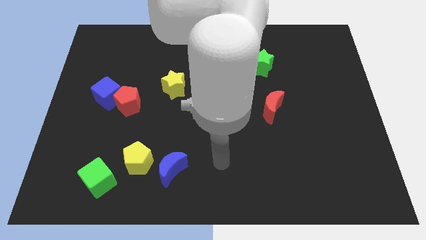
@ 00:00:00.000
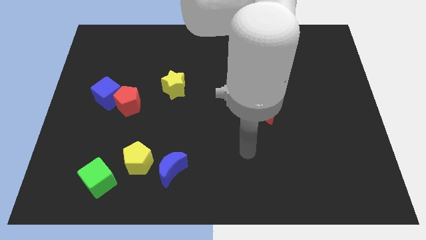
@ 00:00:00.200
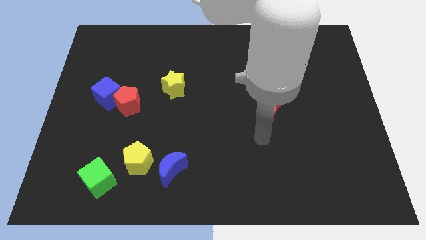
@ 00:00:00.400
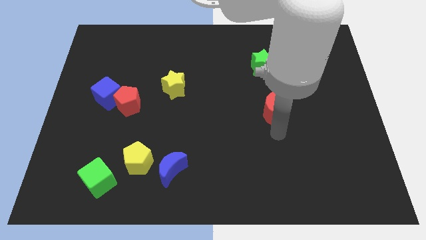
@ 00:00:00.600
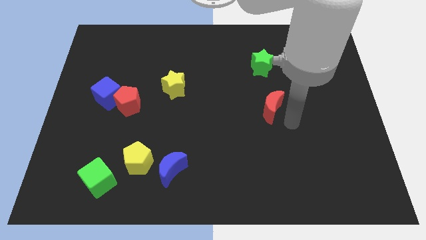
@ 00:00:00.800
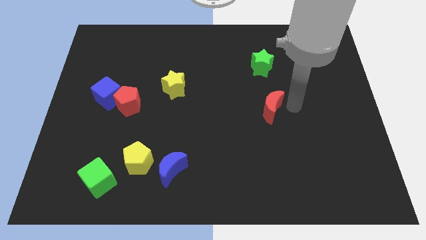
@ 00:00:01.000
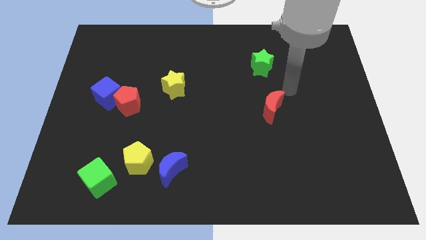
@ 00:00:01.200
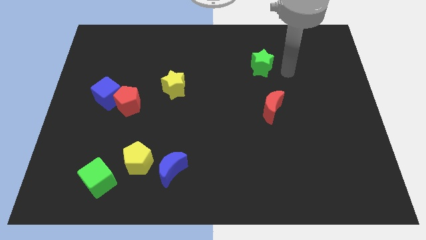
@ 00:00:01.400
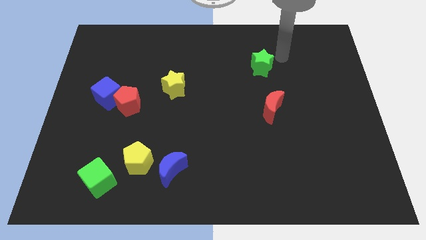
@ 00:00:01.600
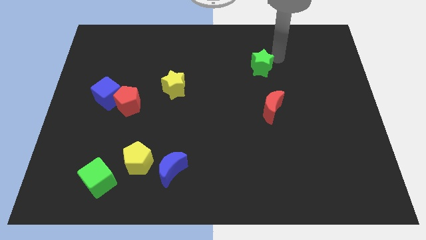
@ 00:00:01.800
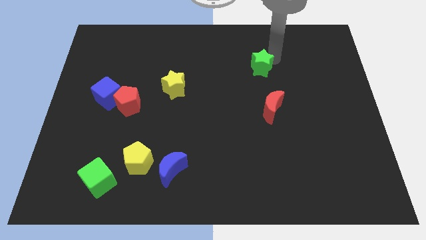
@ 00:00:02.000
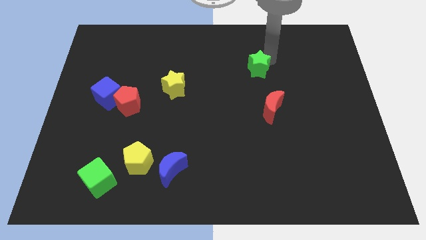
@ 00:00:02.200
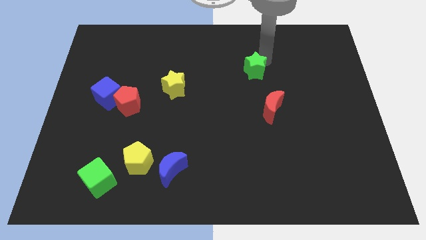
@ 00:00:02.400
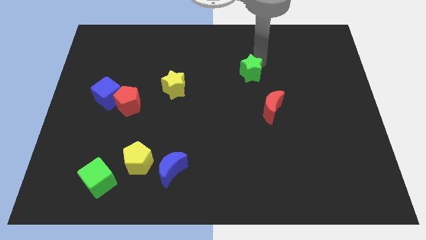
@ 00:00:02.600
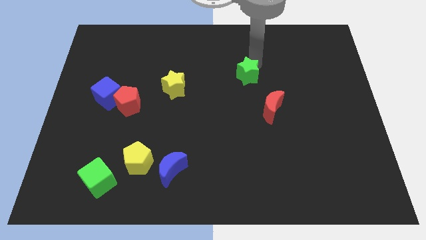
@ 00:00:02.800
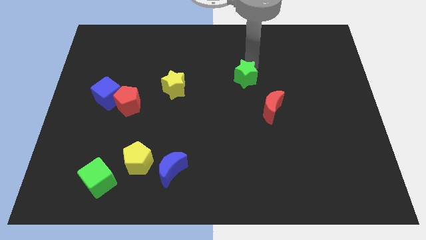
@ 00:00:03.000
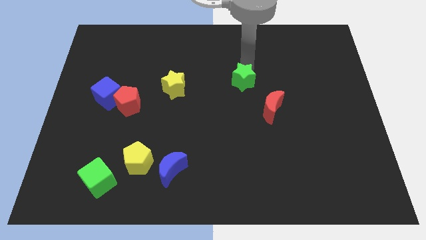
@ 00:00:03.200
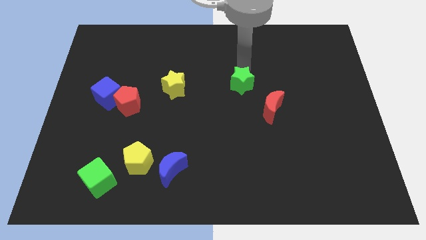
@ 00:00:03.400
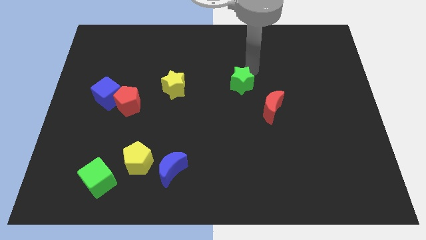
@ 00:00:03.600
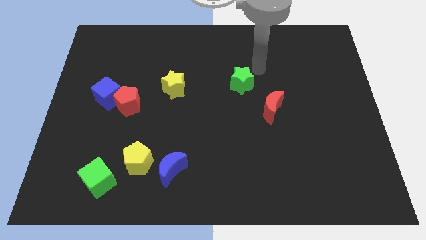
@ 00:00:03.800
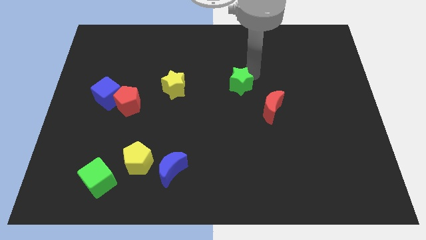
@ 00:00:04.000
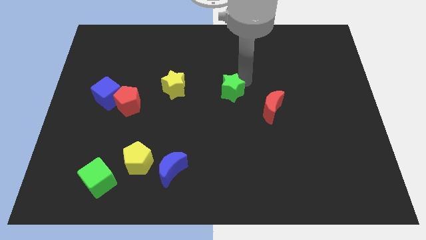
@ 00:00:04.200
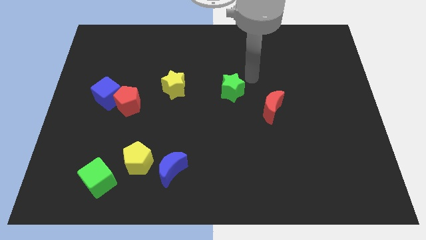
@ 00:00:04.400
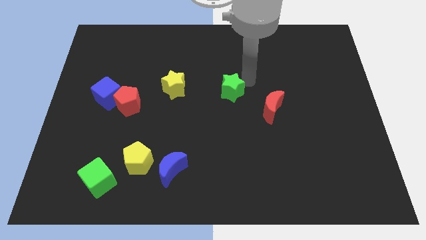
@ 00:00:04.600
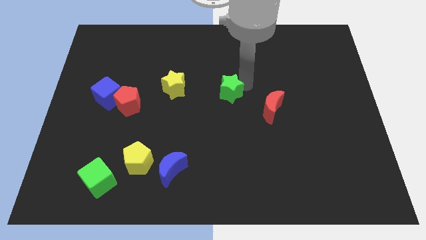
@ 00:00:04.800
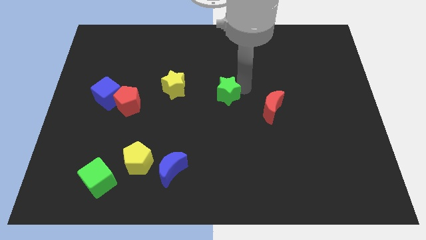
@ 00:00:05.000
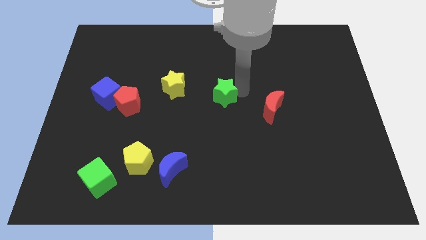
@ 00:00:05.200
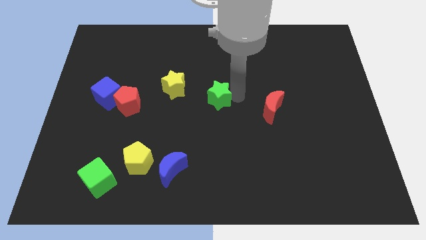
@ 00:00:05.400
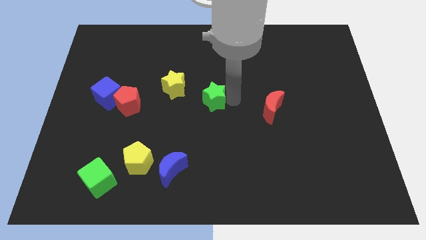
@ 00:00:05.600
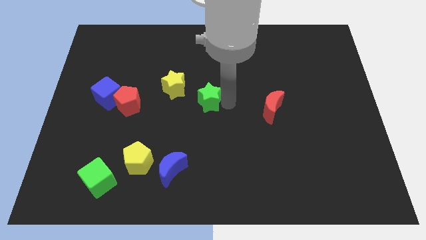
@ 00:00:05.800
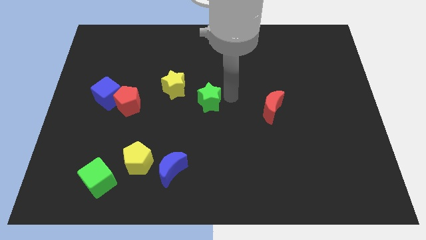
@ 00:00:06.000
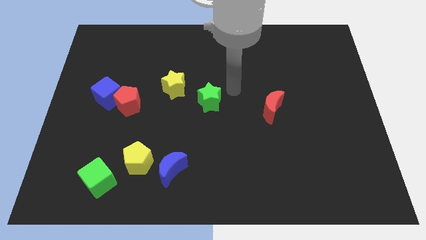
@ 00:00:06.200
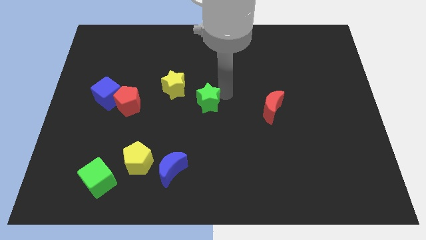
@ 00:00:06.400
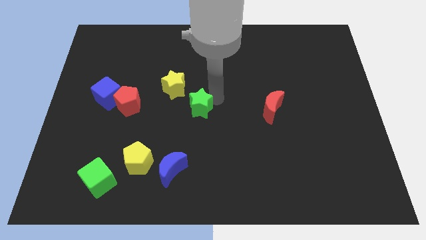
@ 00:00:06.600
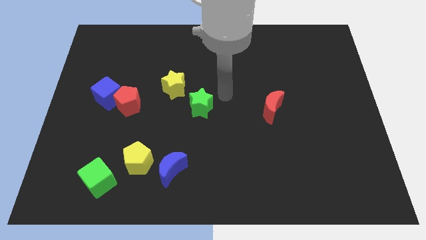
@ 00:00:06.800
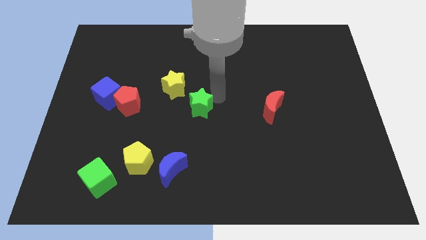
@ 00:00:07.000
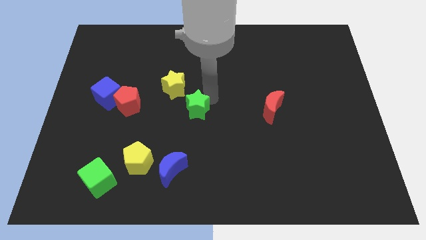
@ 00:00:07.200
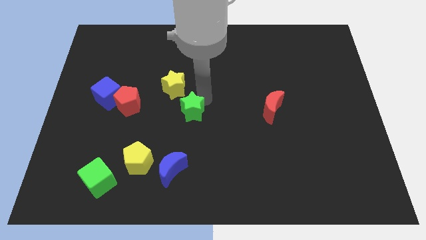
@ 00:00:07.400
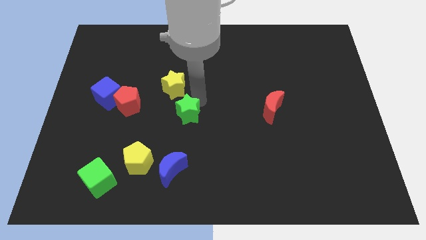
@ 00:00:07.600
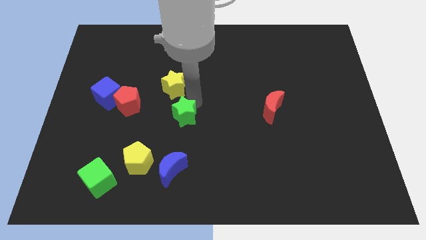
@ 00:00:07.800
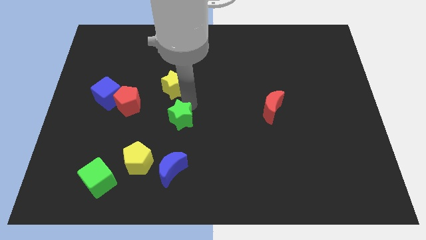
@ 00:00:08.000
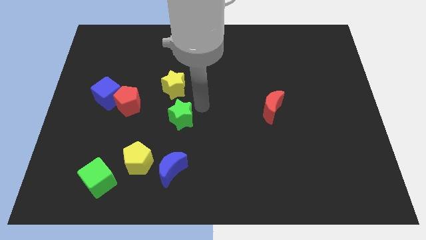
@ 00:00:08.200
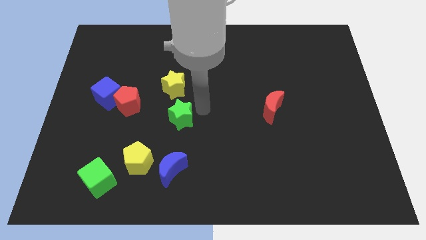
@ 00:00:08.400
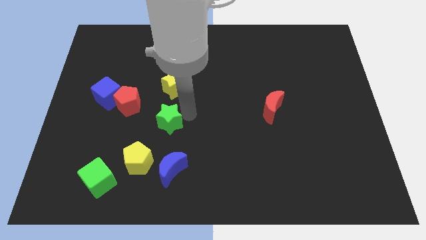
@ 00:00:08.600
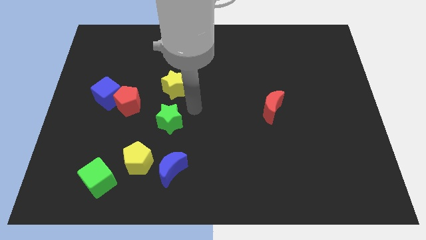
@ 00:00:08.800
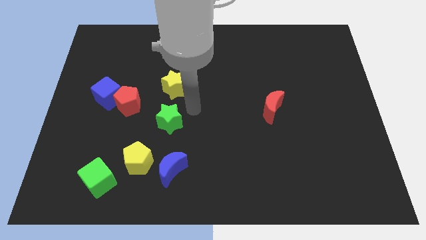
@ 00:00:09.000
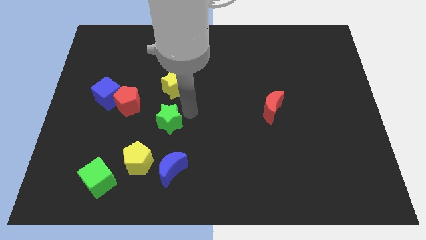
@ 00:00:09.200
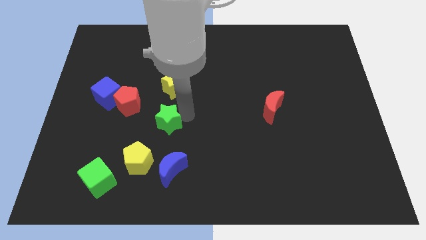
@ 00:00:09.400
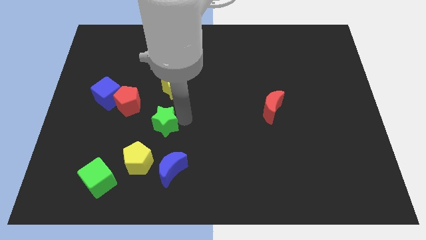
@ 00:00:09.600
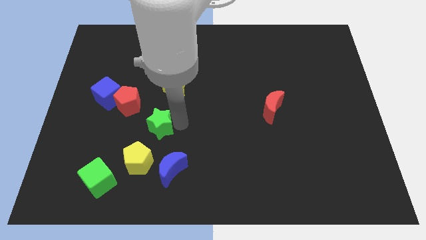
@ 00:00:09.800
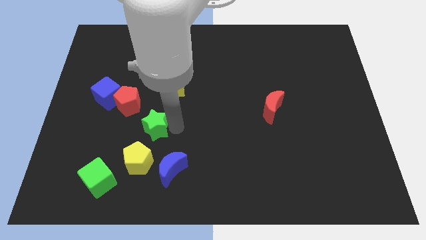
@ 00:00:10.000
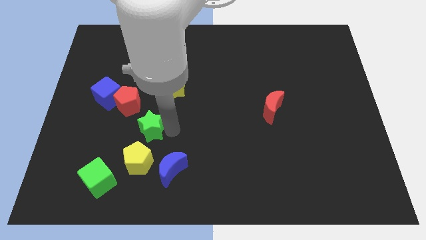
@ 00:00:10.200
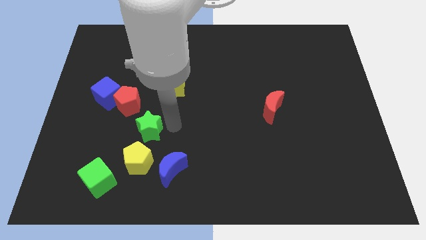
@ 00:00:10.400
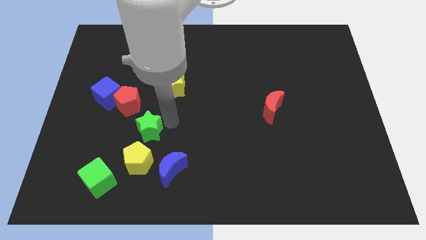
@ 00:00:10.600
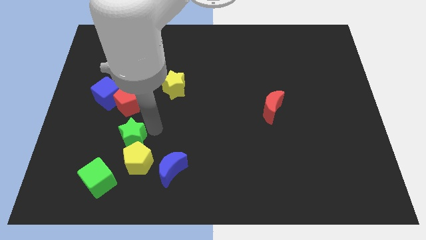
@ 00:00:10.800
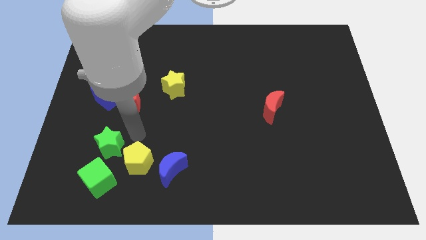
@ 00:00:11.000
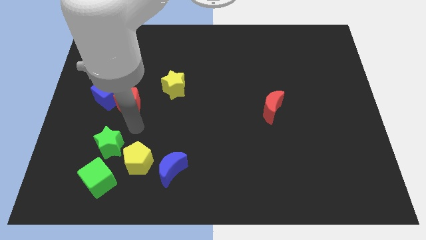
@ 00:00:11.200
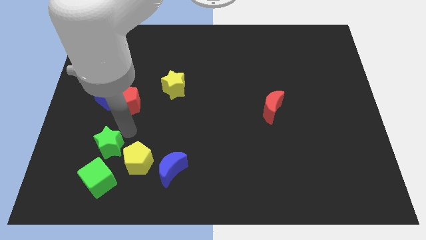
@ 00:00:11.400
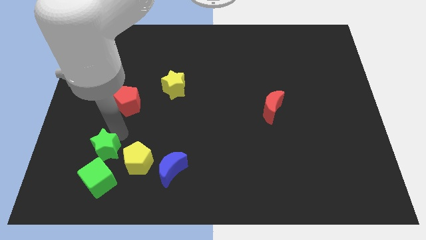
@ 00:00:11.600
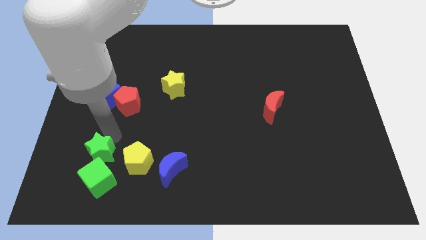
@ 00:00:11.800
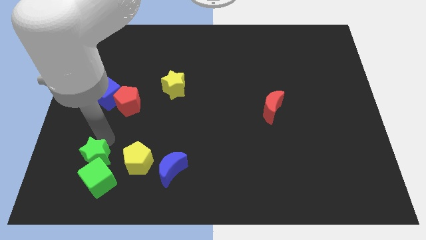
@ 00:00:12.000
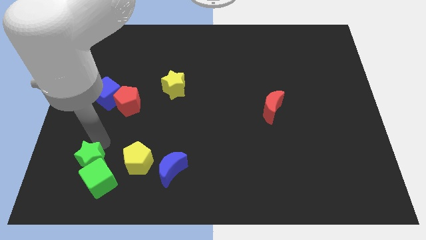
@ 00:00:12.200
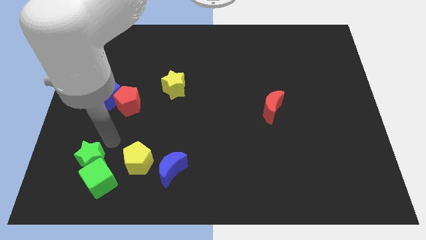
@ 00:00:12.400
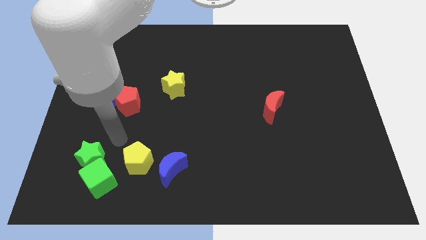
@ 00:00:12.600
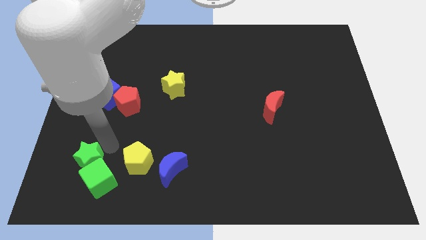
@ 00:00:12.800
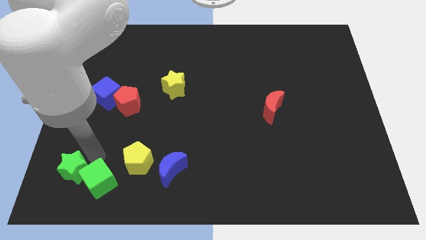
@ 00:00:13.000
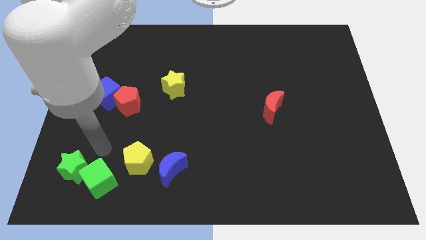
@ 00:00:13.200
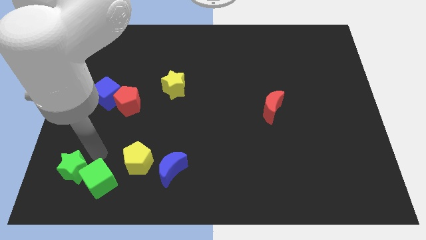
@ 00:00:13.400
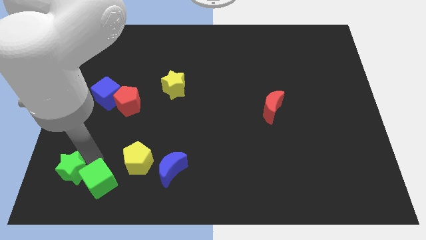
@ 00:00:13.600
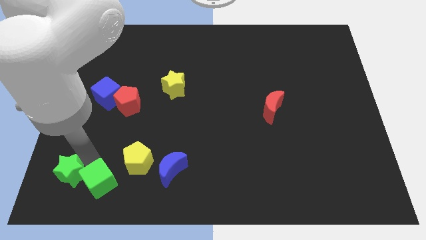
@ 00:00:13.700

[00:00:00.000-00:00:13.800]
move the green star to the lower left corner
